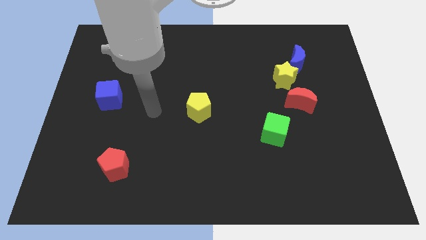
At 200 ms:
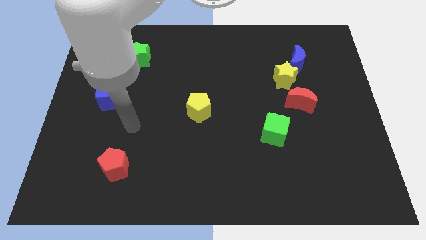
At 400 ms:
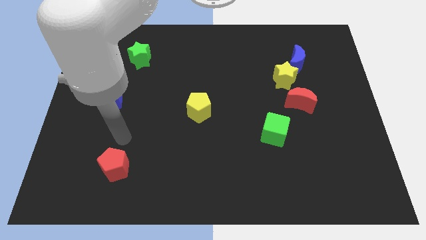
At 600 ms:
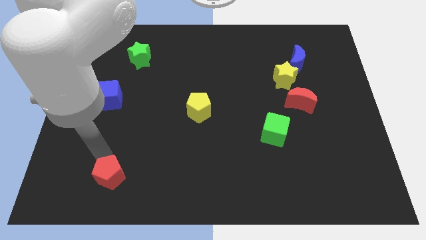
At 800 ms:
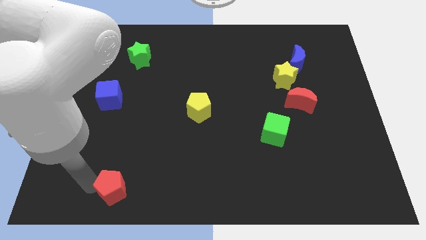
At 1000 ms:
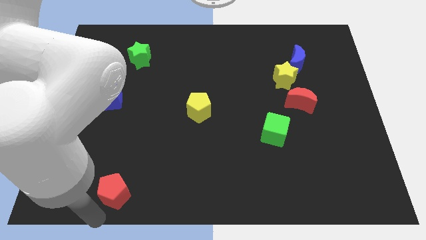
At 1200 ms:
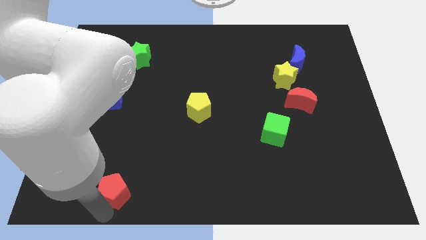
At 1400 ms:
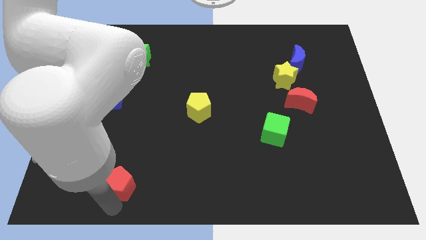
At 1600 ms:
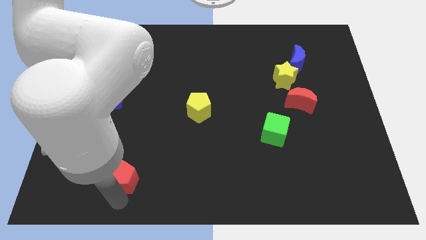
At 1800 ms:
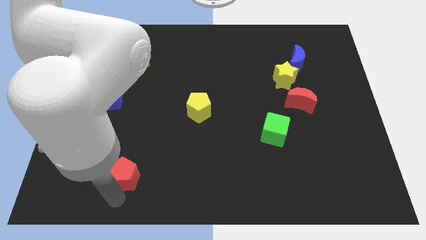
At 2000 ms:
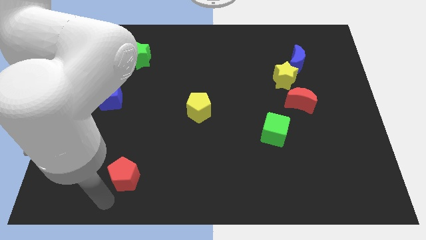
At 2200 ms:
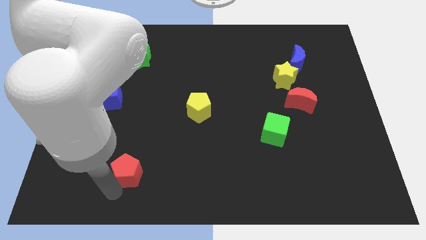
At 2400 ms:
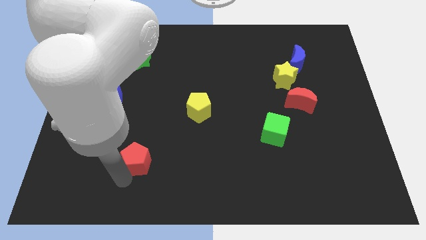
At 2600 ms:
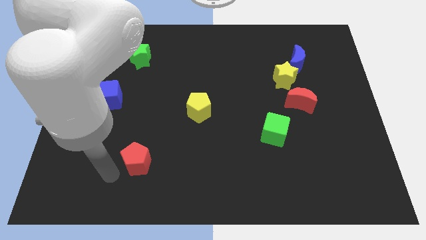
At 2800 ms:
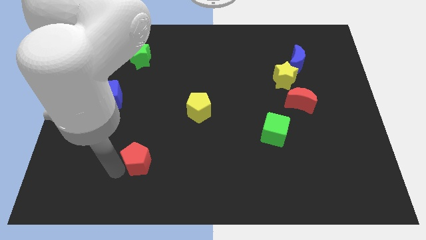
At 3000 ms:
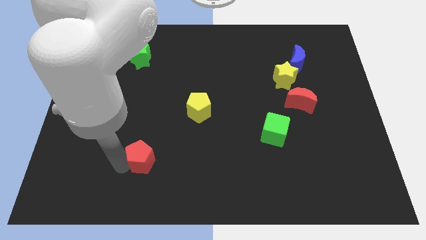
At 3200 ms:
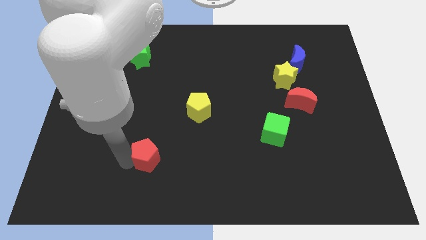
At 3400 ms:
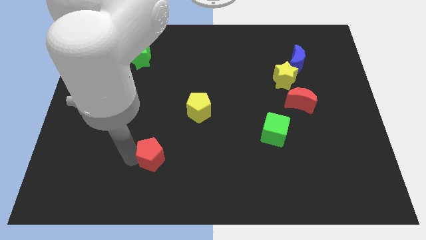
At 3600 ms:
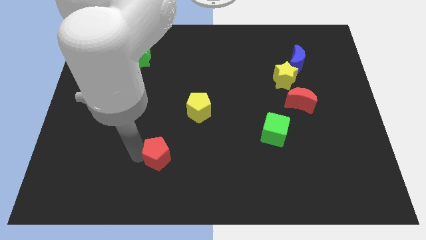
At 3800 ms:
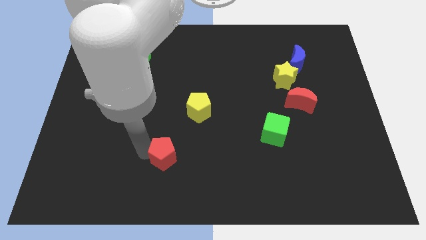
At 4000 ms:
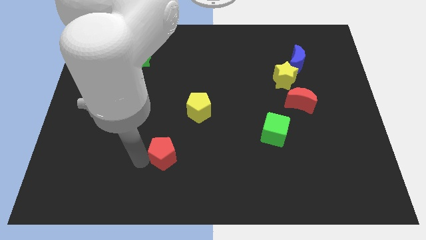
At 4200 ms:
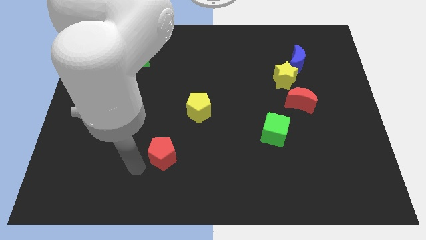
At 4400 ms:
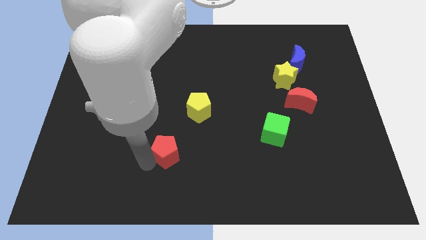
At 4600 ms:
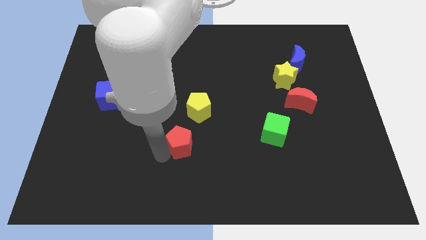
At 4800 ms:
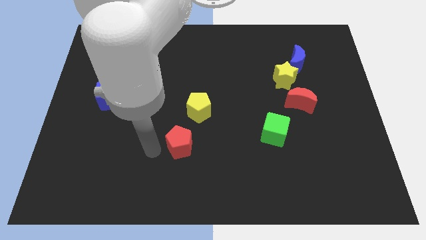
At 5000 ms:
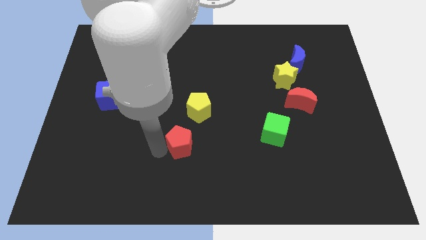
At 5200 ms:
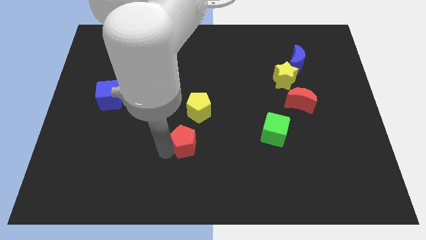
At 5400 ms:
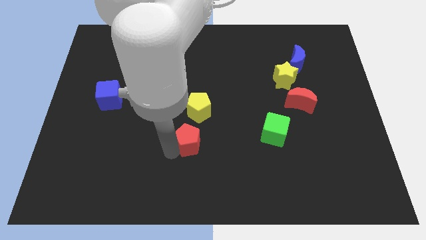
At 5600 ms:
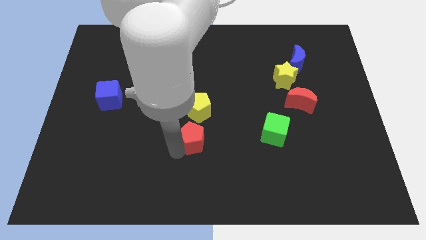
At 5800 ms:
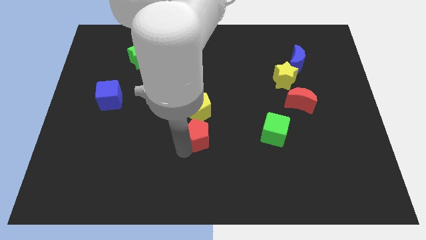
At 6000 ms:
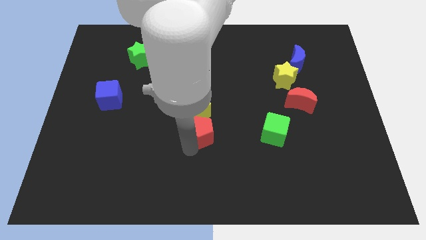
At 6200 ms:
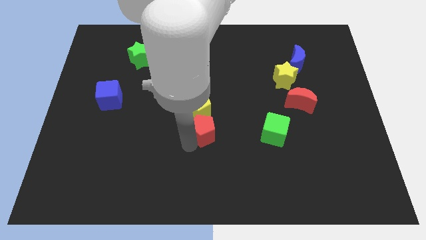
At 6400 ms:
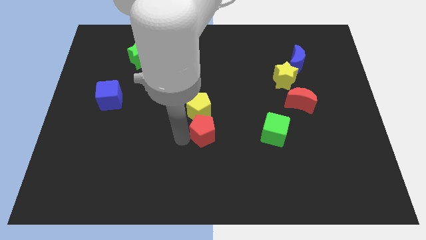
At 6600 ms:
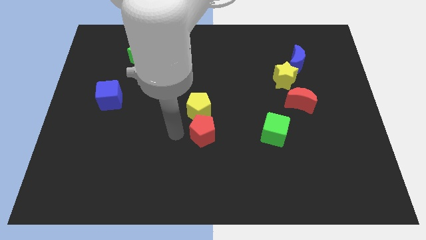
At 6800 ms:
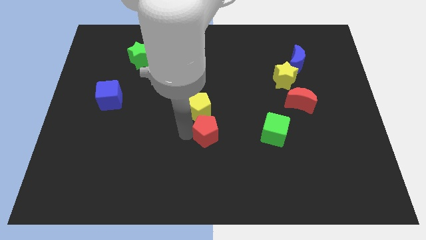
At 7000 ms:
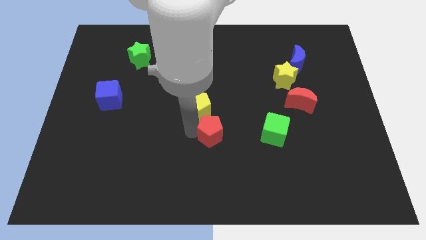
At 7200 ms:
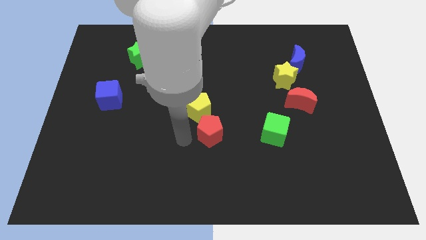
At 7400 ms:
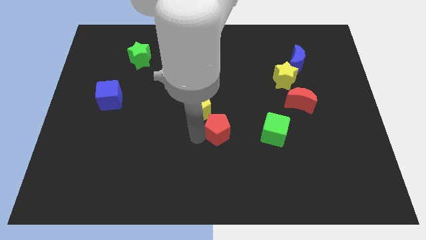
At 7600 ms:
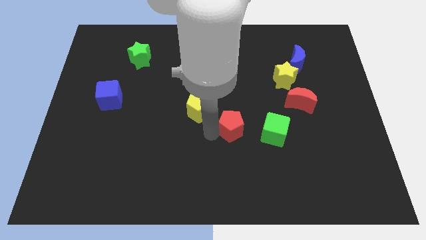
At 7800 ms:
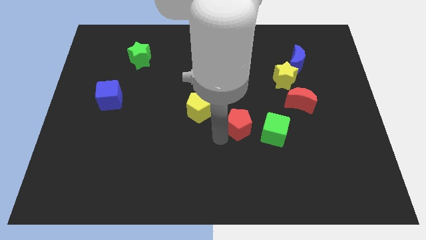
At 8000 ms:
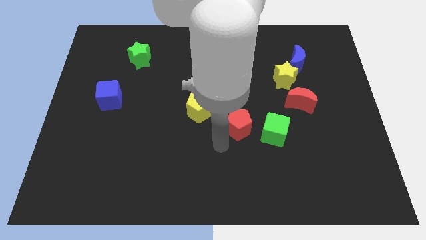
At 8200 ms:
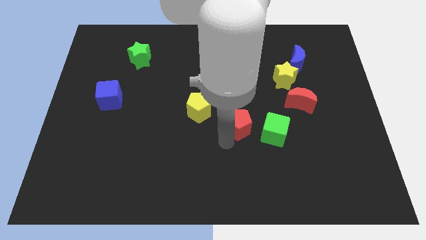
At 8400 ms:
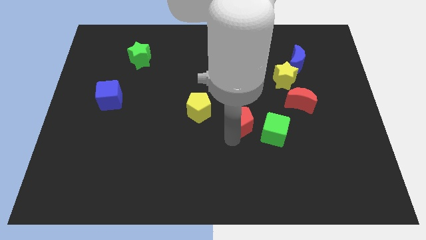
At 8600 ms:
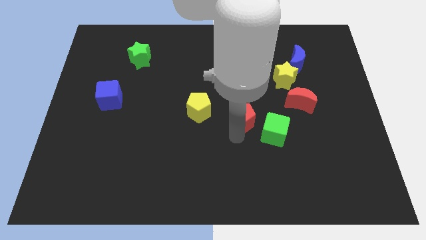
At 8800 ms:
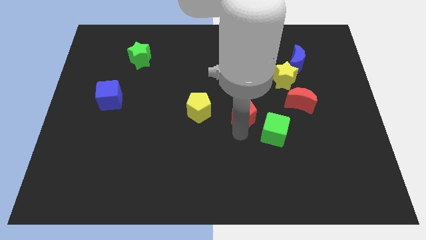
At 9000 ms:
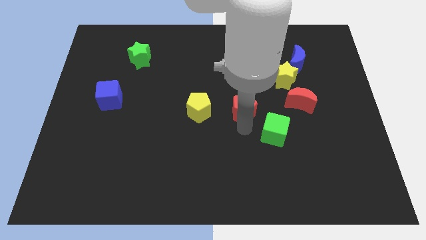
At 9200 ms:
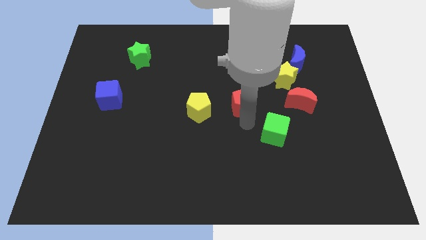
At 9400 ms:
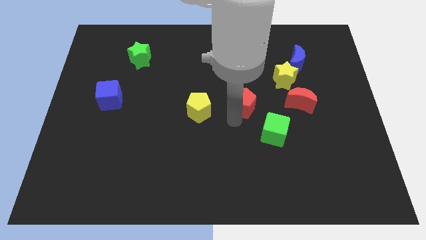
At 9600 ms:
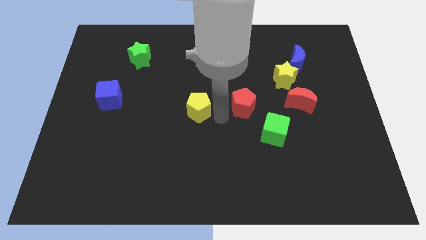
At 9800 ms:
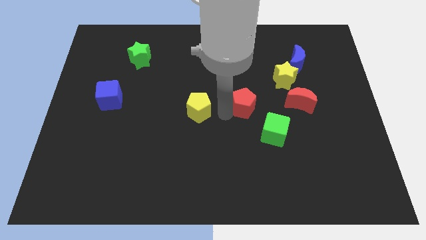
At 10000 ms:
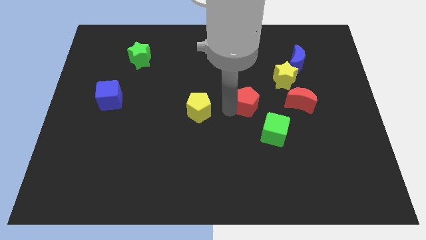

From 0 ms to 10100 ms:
slide the red pentagon to the bottom left of the yellow star

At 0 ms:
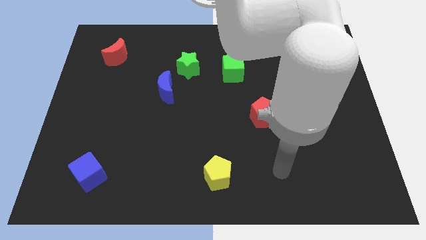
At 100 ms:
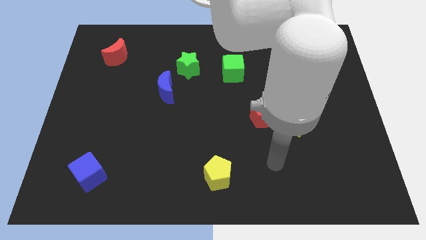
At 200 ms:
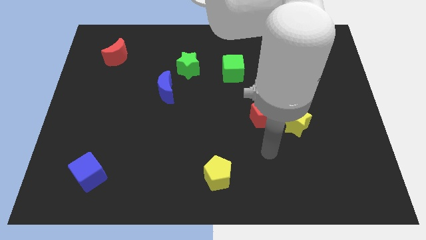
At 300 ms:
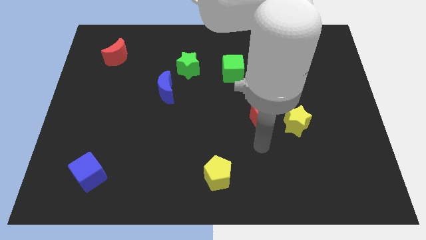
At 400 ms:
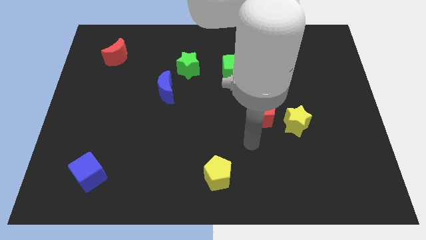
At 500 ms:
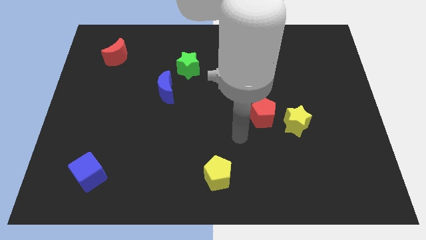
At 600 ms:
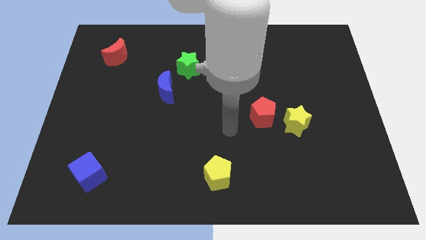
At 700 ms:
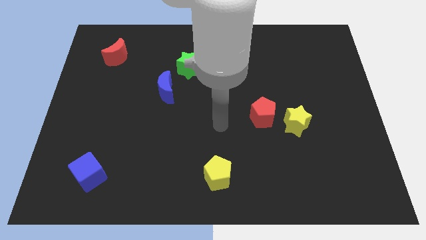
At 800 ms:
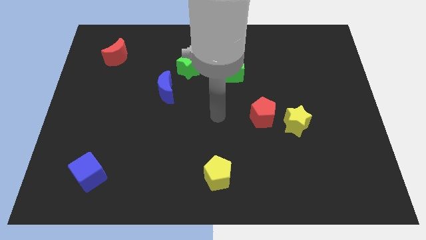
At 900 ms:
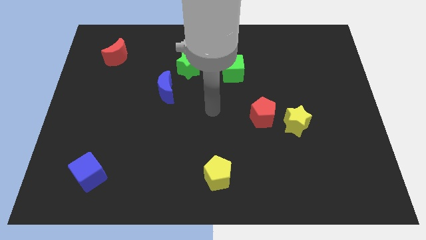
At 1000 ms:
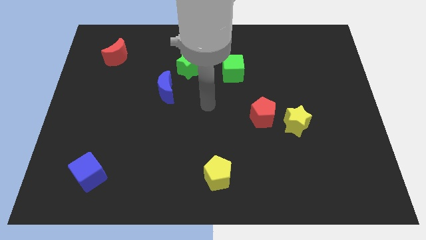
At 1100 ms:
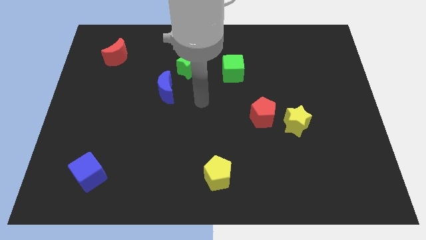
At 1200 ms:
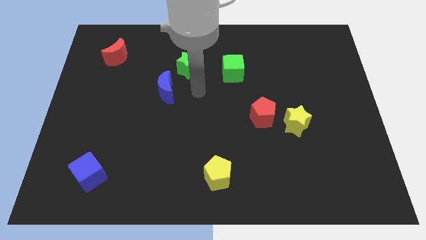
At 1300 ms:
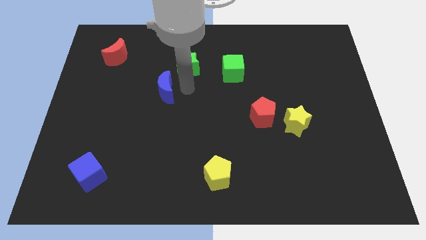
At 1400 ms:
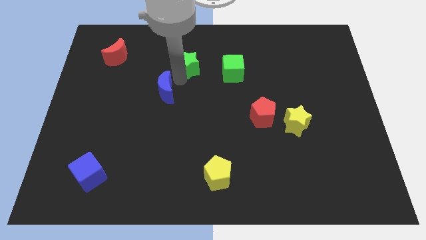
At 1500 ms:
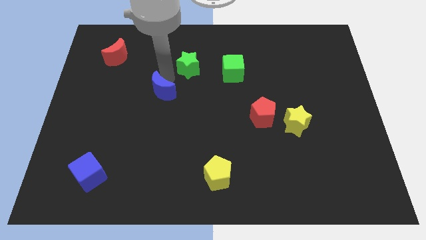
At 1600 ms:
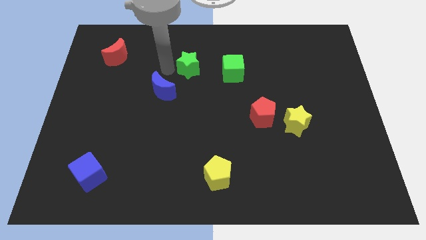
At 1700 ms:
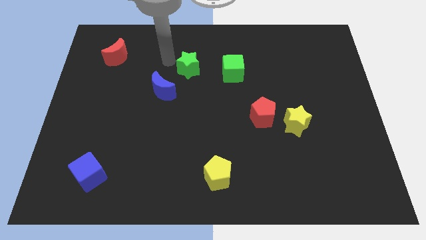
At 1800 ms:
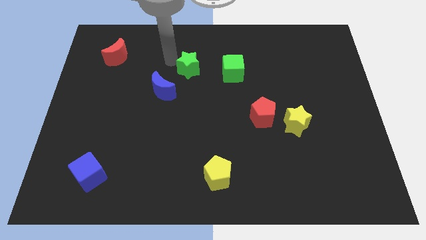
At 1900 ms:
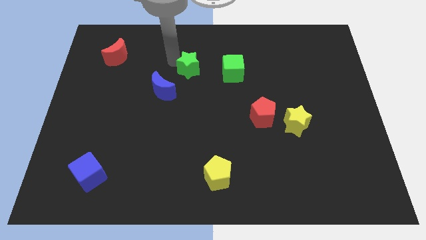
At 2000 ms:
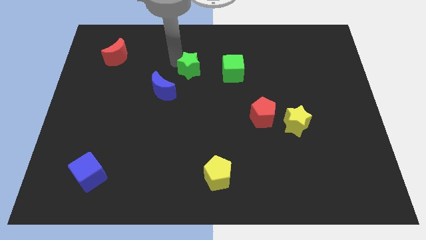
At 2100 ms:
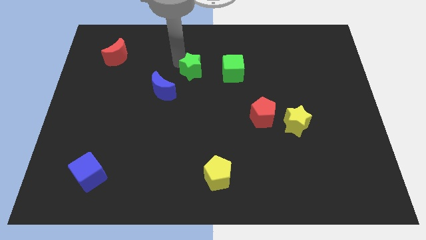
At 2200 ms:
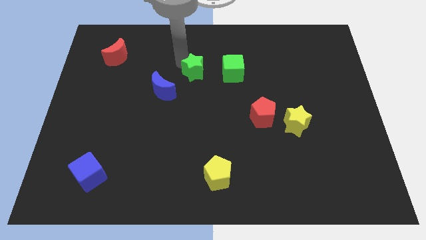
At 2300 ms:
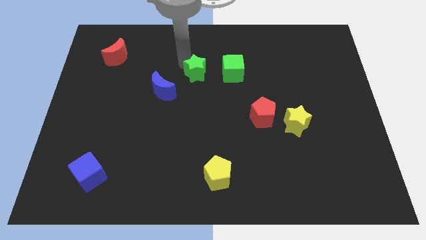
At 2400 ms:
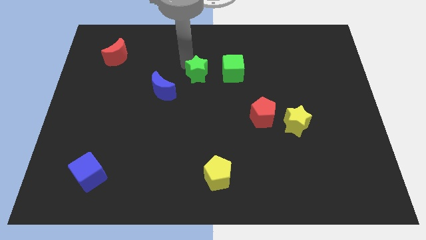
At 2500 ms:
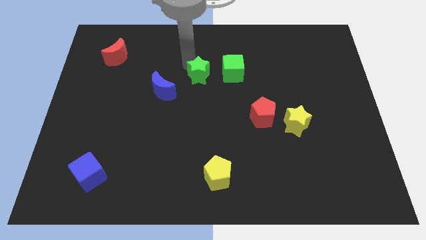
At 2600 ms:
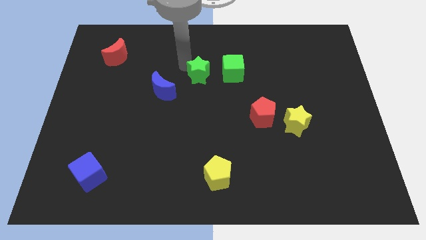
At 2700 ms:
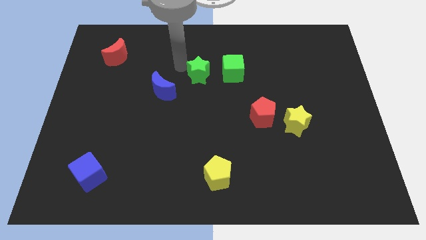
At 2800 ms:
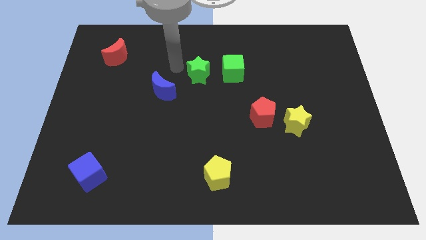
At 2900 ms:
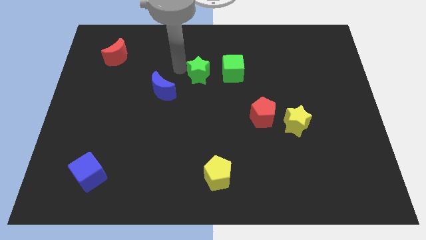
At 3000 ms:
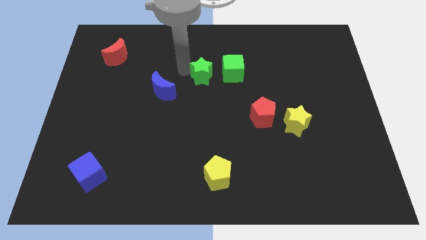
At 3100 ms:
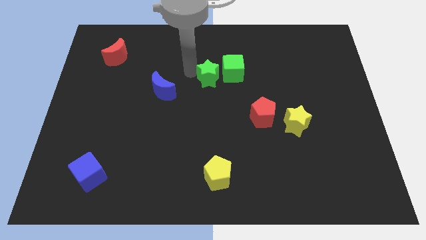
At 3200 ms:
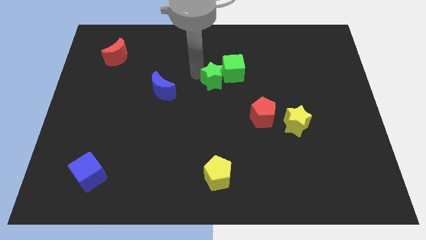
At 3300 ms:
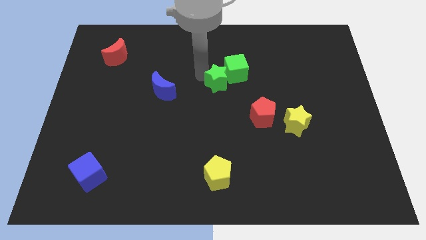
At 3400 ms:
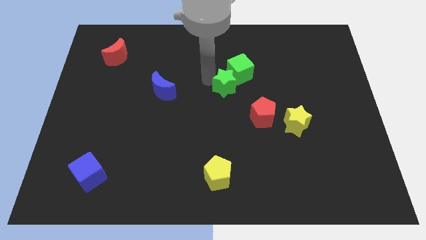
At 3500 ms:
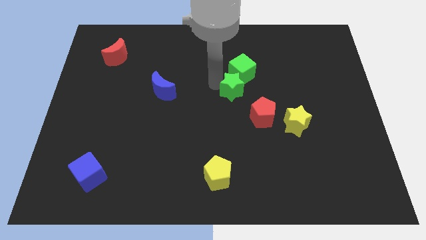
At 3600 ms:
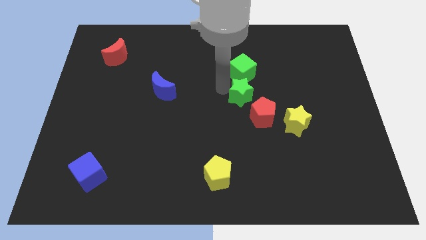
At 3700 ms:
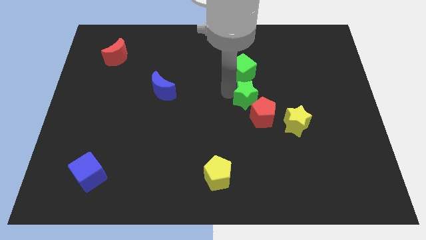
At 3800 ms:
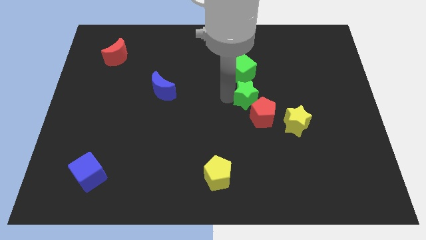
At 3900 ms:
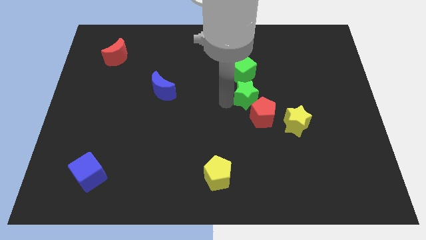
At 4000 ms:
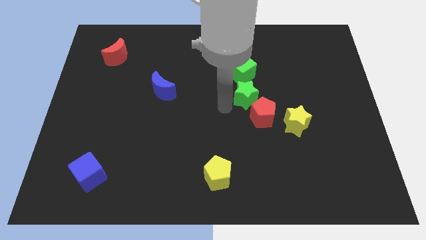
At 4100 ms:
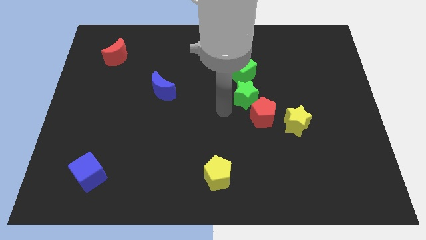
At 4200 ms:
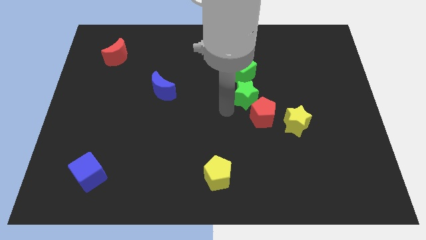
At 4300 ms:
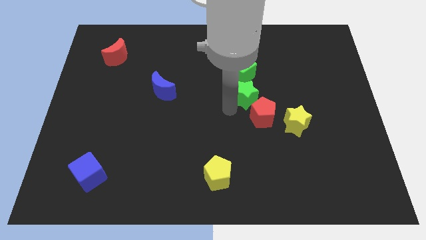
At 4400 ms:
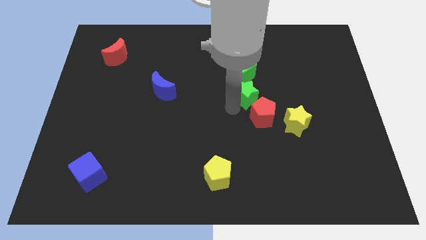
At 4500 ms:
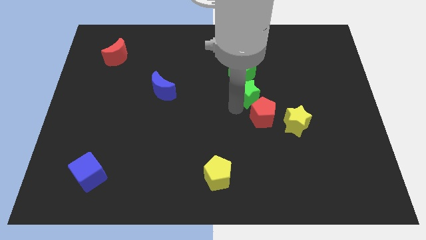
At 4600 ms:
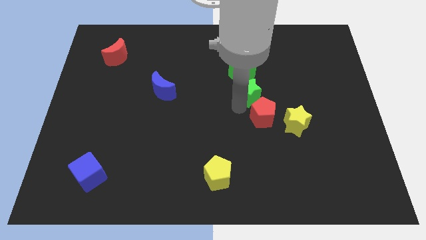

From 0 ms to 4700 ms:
put the green star to the bottom right side of the green cube
